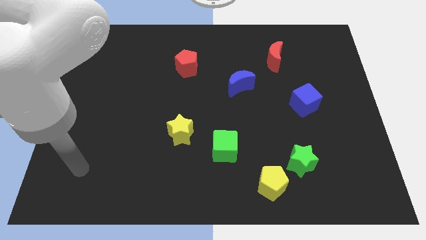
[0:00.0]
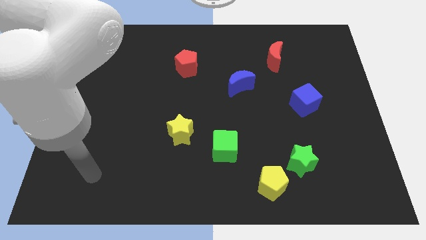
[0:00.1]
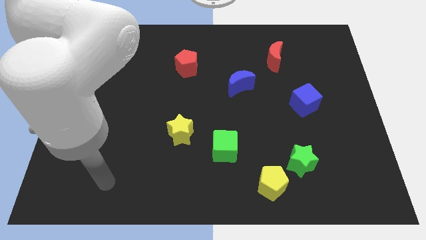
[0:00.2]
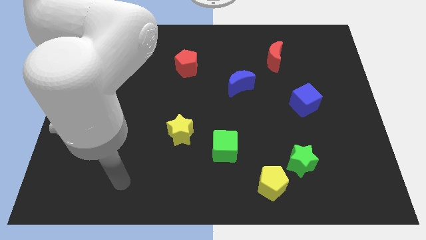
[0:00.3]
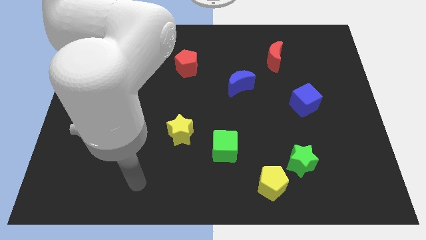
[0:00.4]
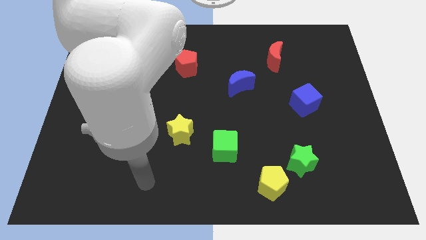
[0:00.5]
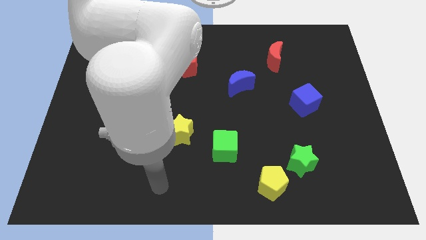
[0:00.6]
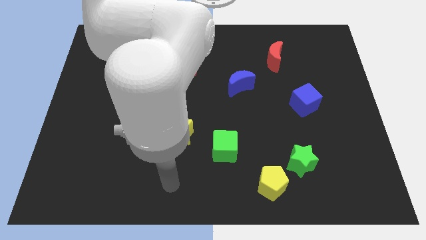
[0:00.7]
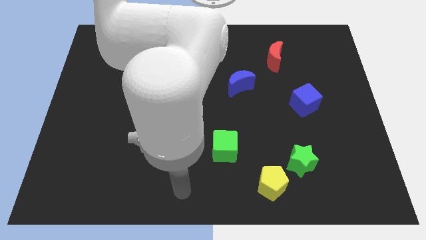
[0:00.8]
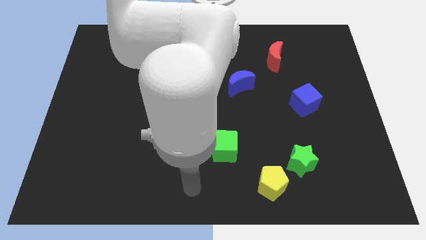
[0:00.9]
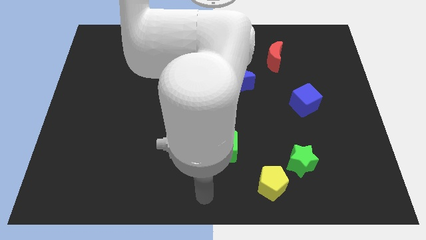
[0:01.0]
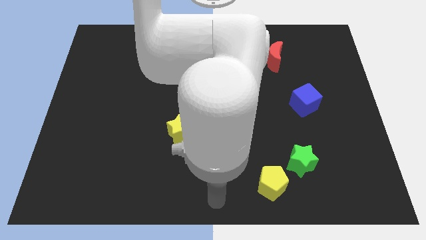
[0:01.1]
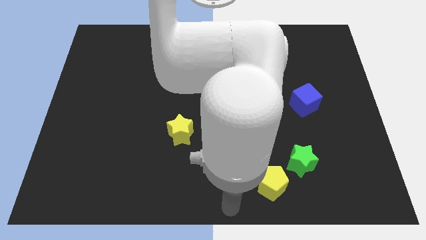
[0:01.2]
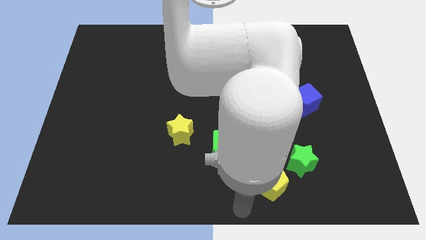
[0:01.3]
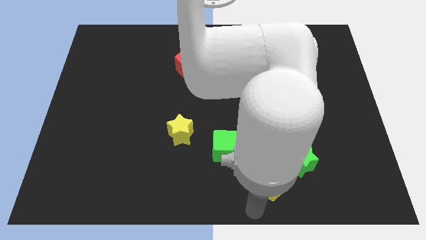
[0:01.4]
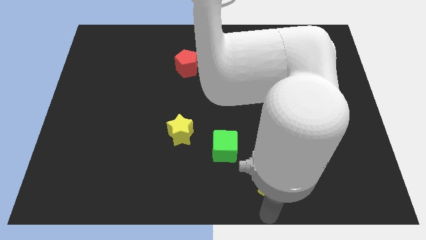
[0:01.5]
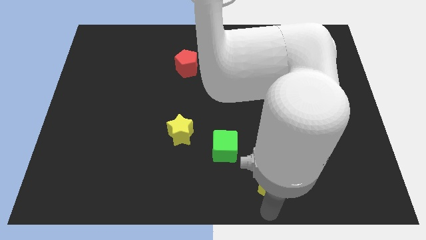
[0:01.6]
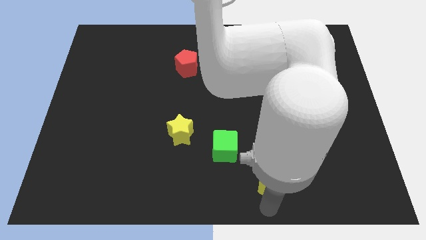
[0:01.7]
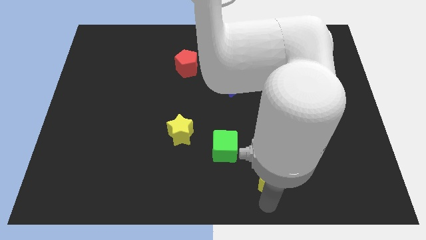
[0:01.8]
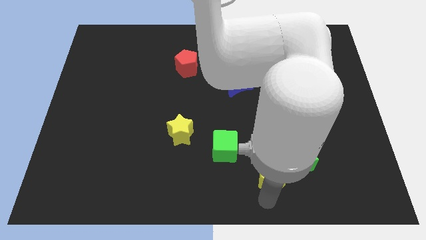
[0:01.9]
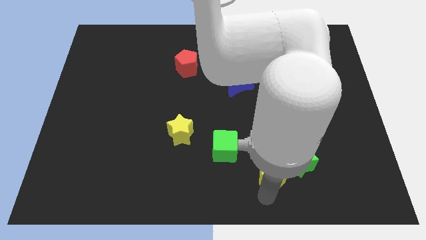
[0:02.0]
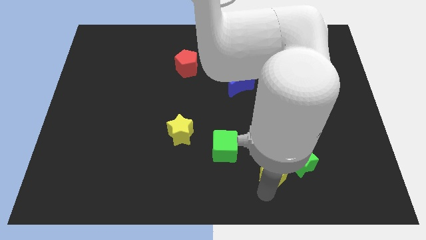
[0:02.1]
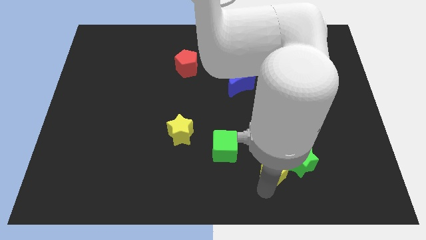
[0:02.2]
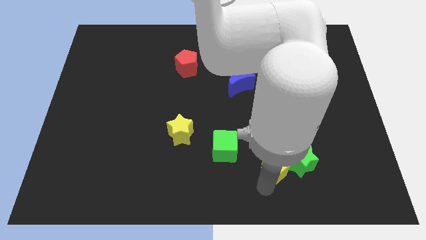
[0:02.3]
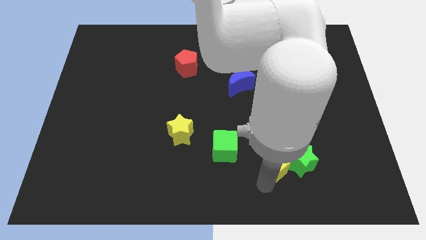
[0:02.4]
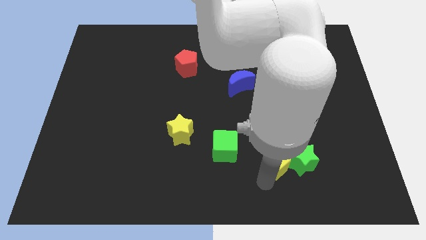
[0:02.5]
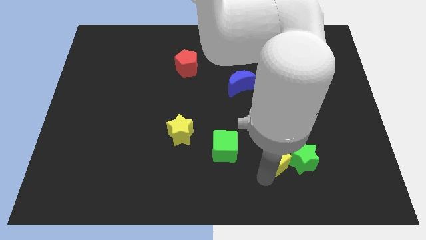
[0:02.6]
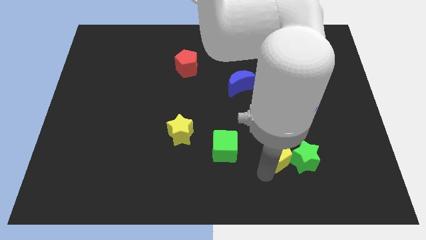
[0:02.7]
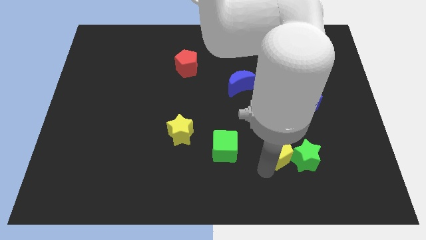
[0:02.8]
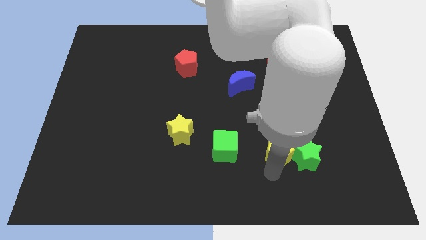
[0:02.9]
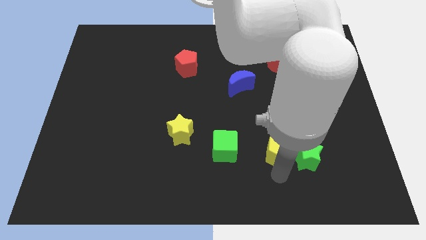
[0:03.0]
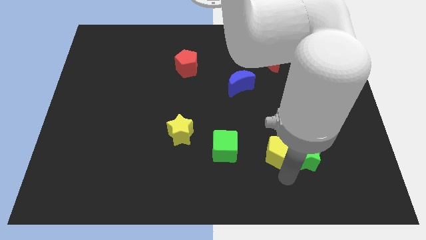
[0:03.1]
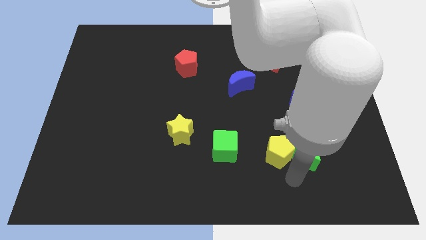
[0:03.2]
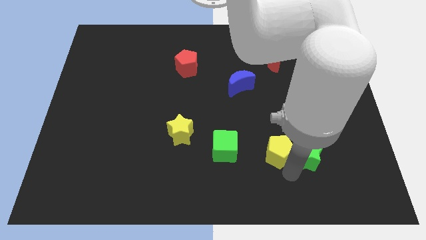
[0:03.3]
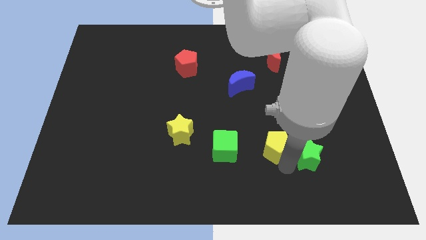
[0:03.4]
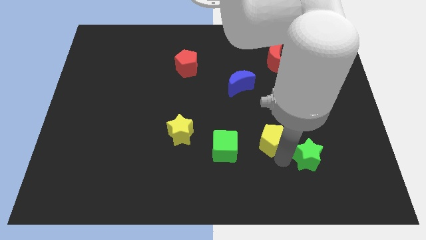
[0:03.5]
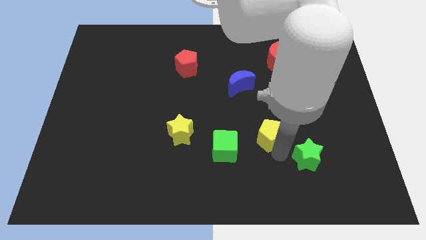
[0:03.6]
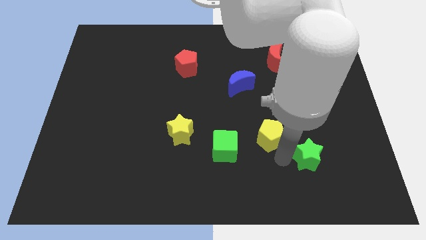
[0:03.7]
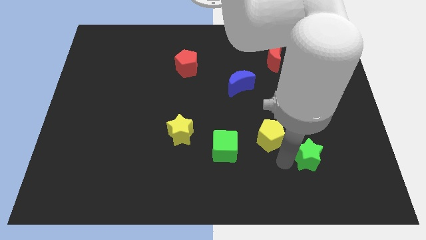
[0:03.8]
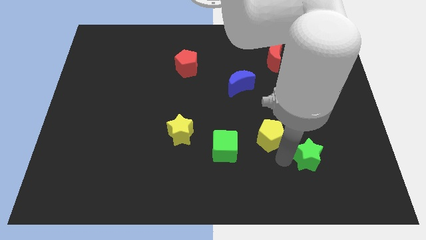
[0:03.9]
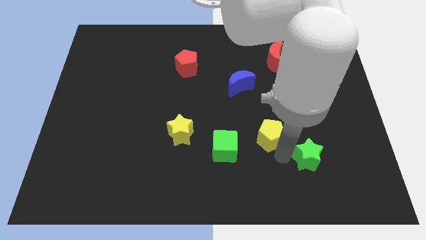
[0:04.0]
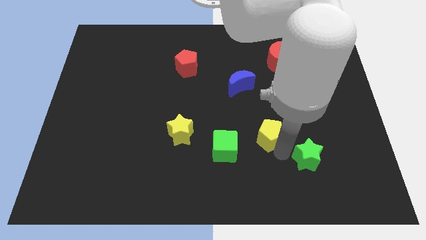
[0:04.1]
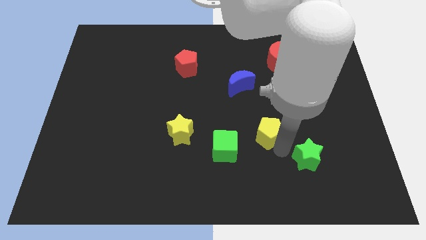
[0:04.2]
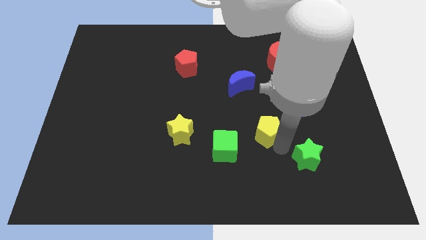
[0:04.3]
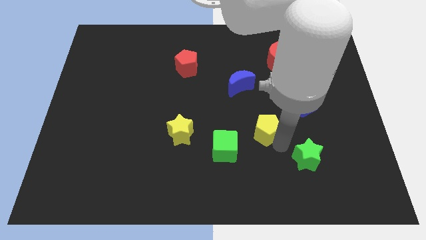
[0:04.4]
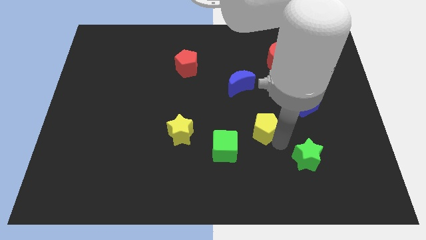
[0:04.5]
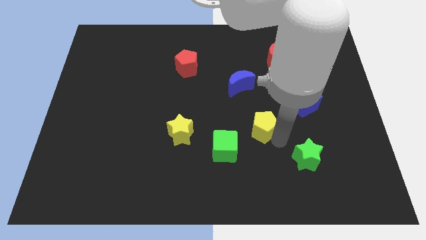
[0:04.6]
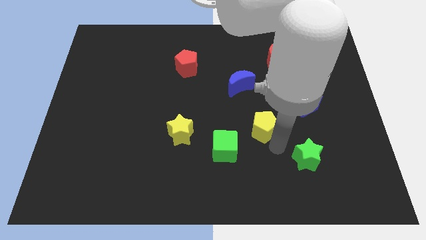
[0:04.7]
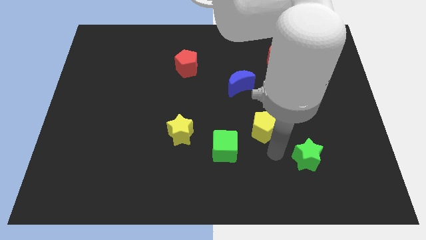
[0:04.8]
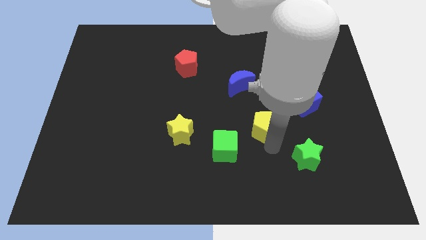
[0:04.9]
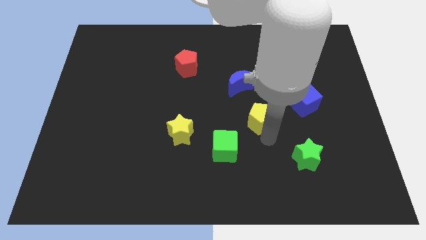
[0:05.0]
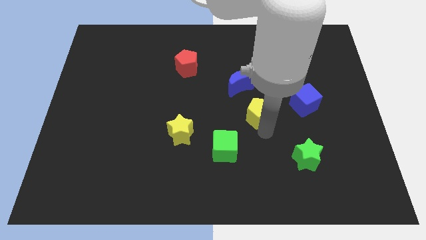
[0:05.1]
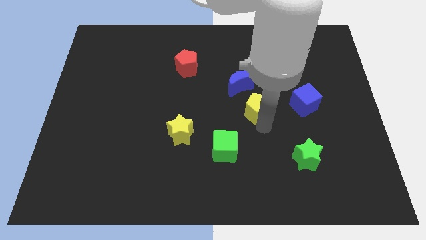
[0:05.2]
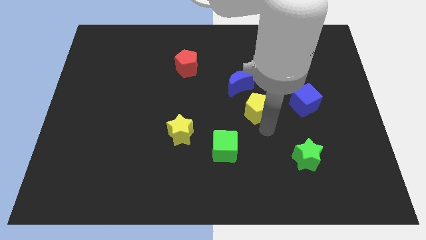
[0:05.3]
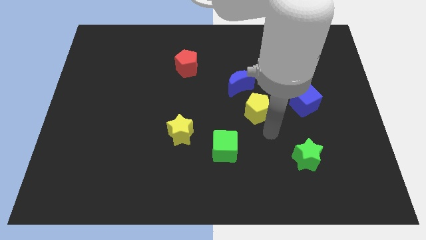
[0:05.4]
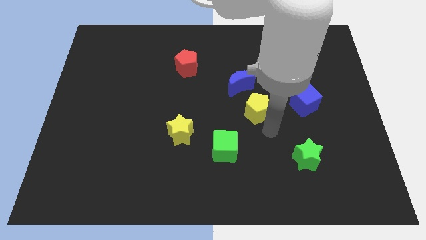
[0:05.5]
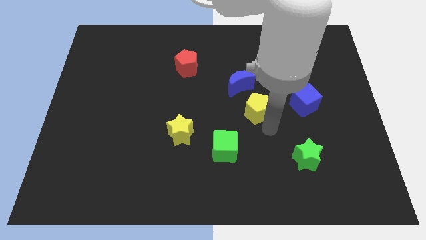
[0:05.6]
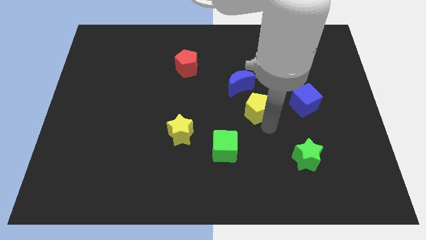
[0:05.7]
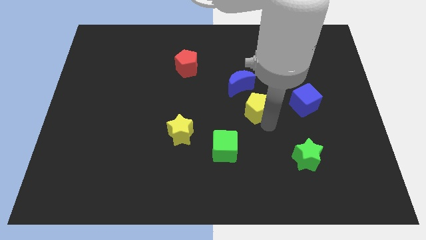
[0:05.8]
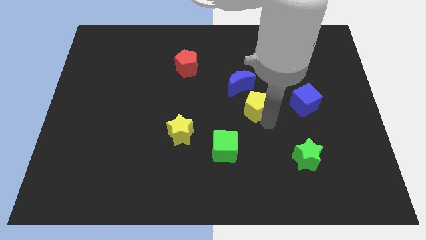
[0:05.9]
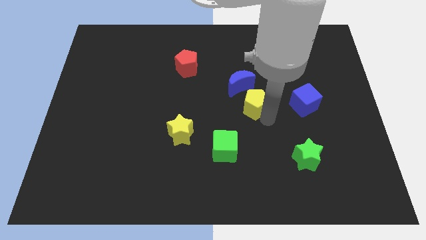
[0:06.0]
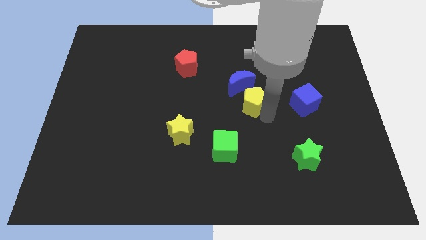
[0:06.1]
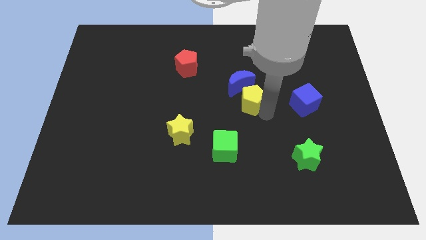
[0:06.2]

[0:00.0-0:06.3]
put the yellow pentagon close to the blue moon
